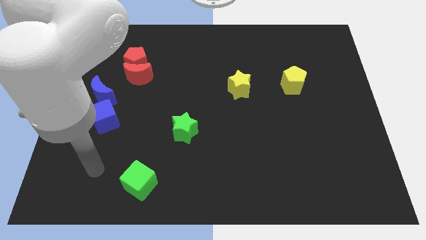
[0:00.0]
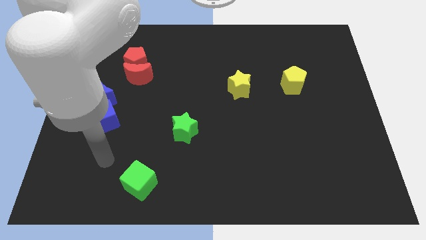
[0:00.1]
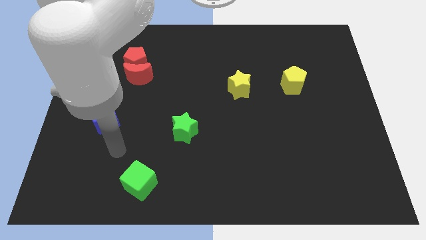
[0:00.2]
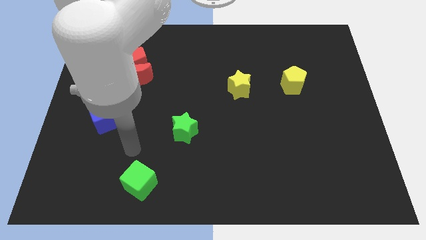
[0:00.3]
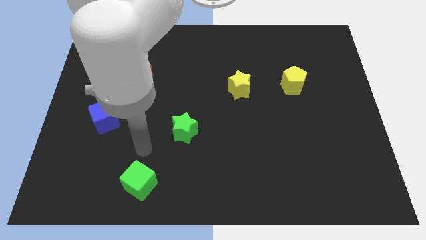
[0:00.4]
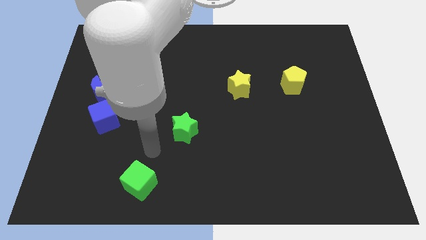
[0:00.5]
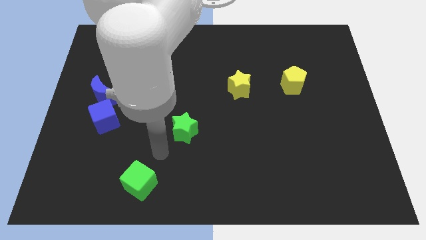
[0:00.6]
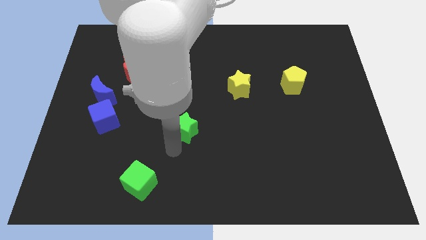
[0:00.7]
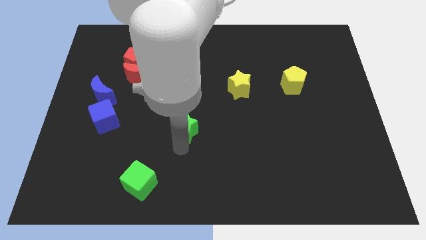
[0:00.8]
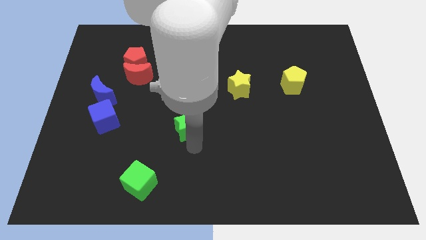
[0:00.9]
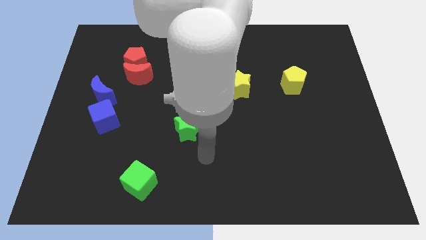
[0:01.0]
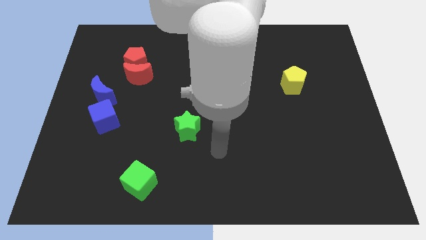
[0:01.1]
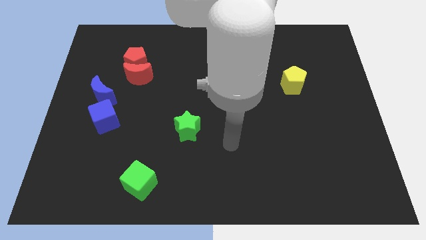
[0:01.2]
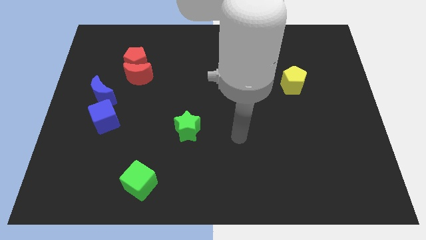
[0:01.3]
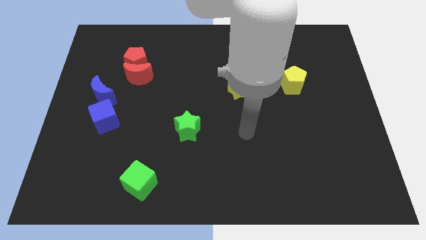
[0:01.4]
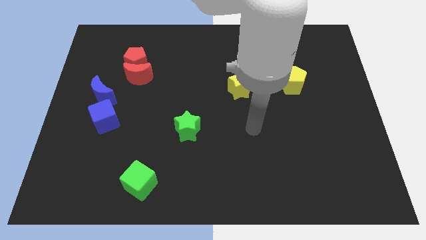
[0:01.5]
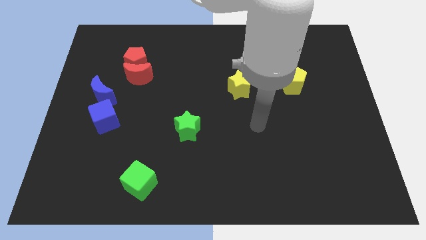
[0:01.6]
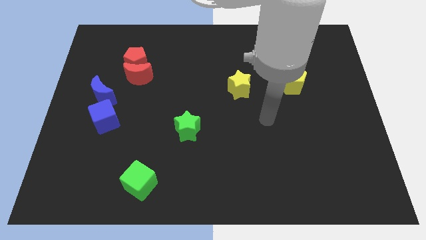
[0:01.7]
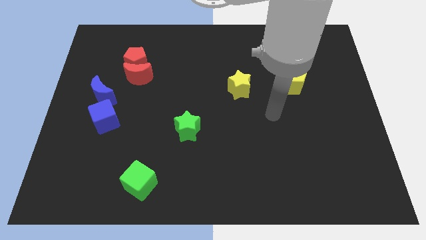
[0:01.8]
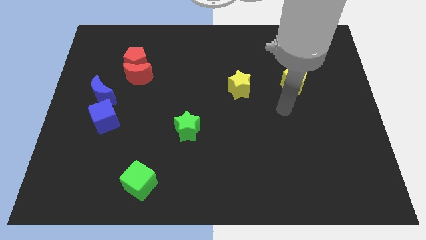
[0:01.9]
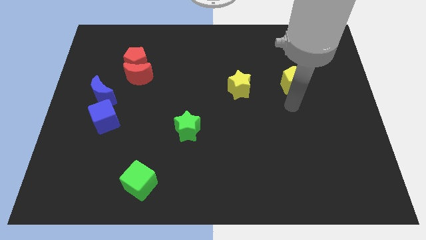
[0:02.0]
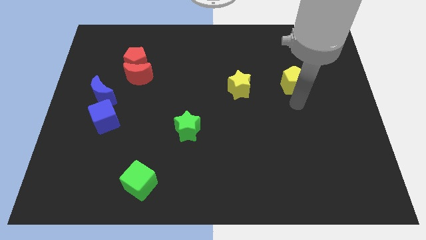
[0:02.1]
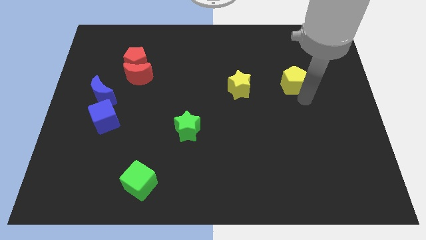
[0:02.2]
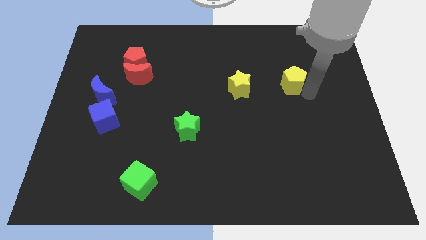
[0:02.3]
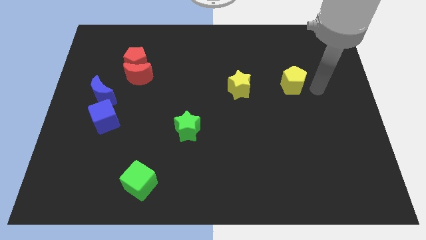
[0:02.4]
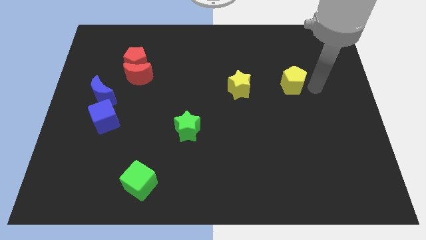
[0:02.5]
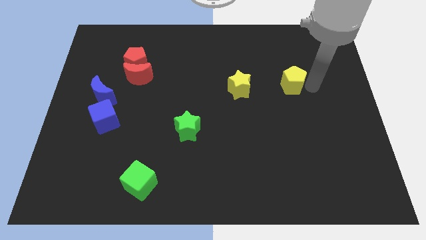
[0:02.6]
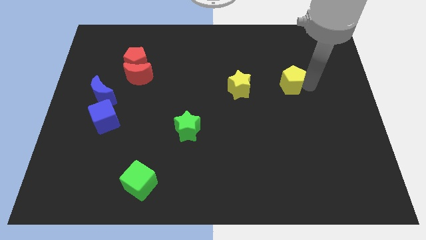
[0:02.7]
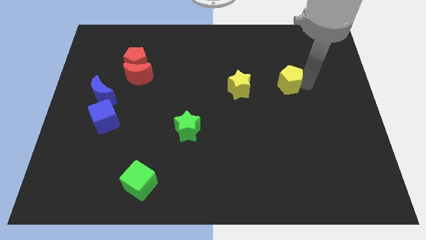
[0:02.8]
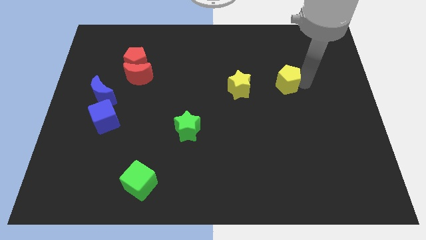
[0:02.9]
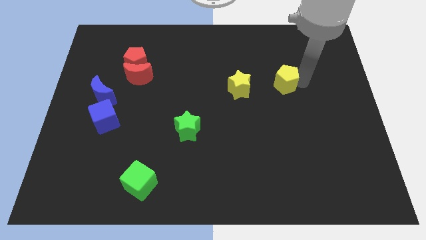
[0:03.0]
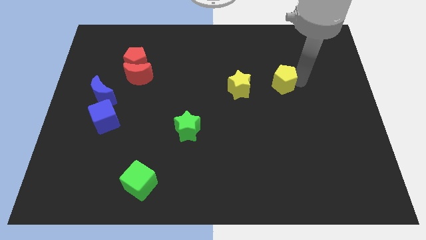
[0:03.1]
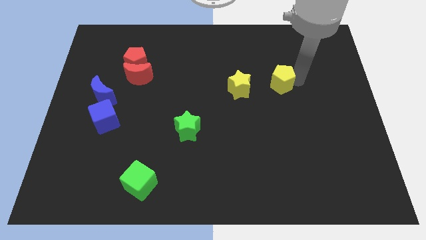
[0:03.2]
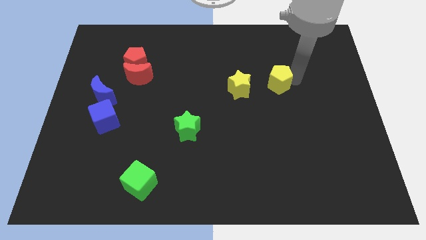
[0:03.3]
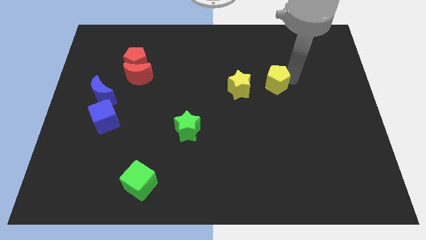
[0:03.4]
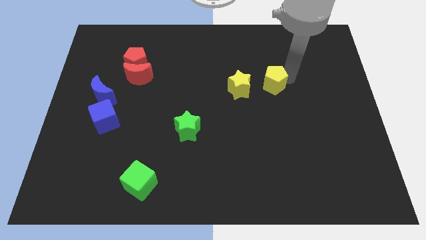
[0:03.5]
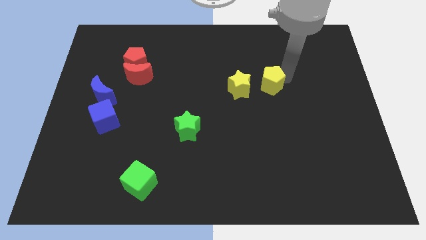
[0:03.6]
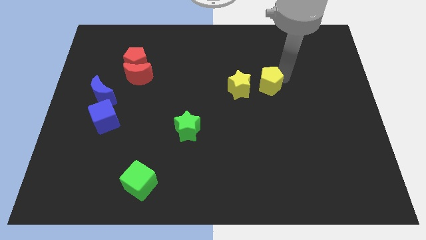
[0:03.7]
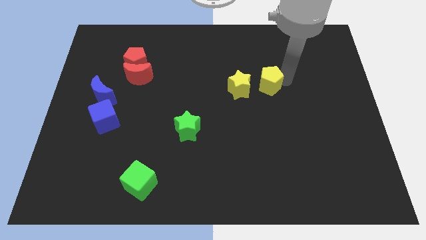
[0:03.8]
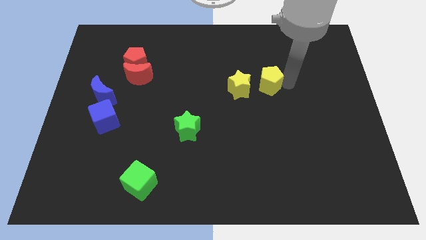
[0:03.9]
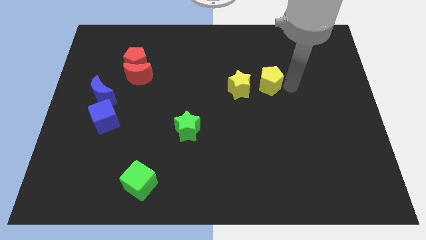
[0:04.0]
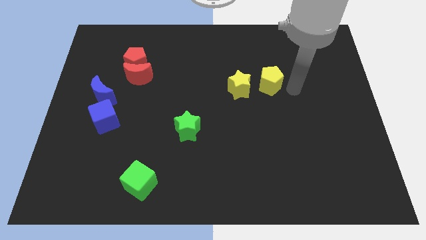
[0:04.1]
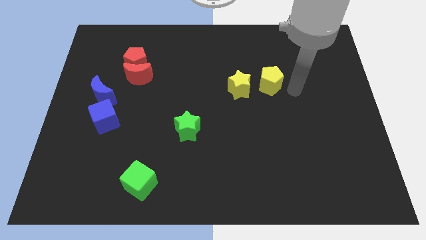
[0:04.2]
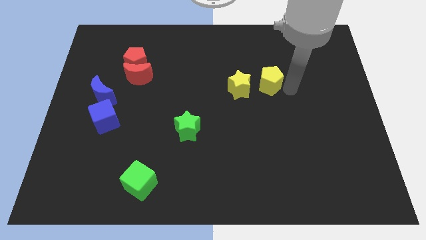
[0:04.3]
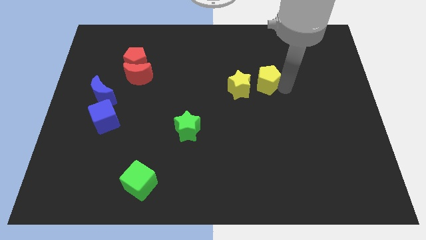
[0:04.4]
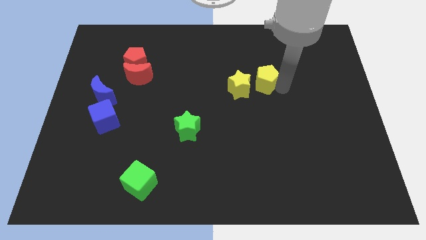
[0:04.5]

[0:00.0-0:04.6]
slightly slide the yellow pentagon to the left

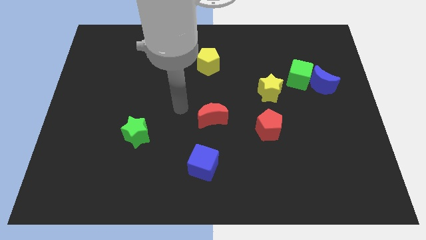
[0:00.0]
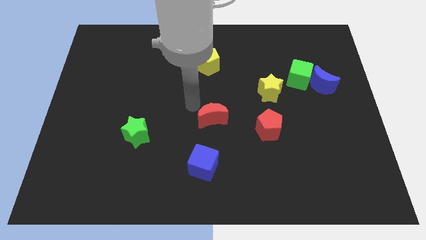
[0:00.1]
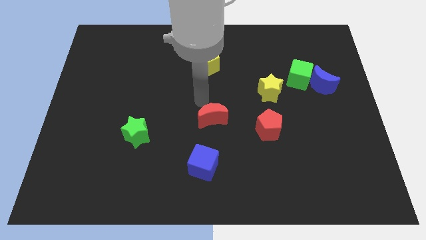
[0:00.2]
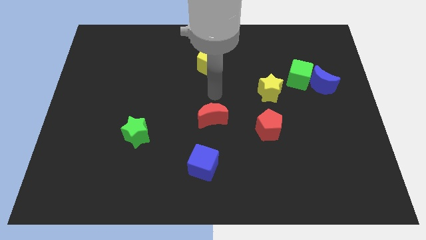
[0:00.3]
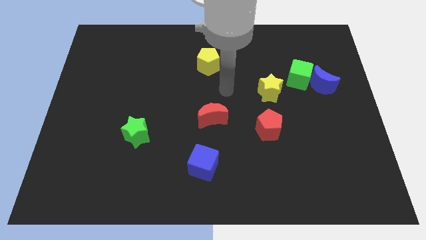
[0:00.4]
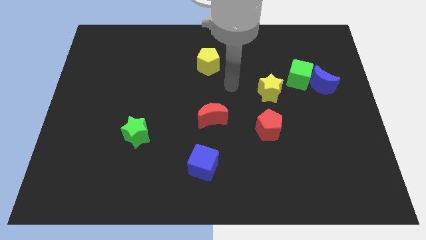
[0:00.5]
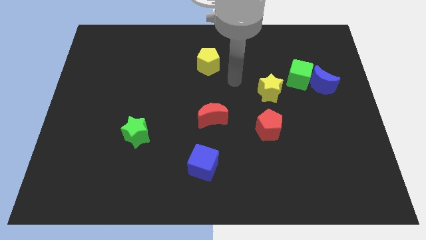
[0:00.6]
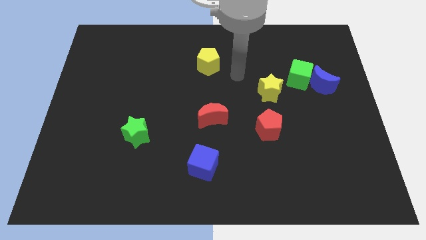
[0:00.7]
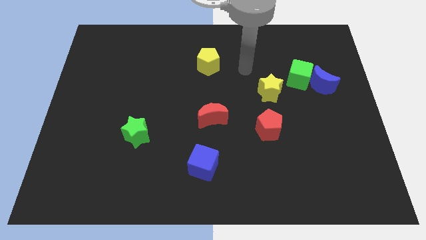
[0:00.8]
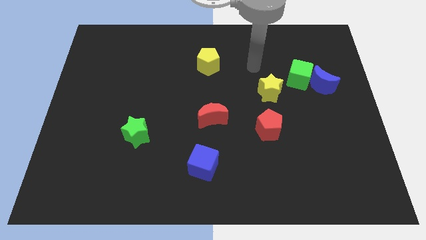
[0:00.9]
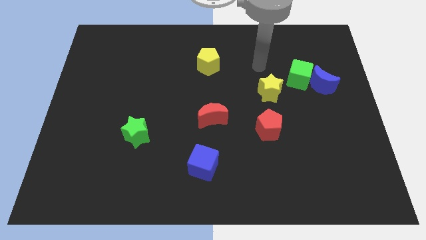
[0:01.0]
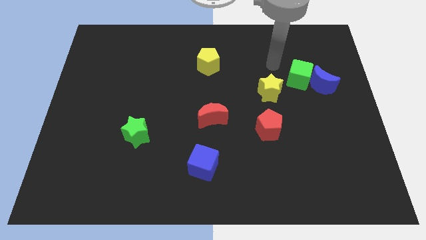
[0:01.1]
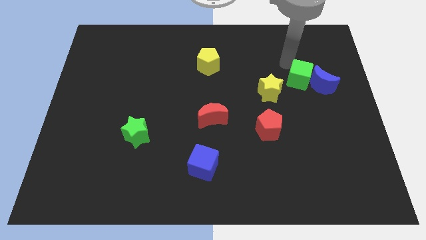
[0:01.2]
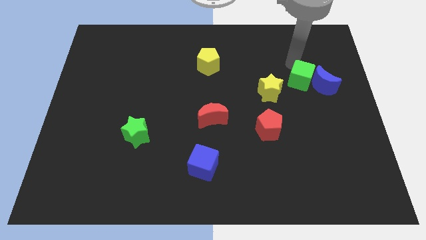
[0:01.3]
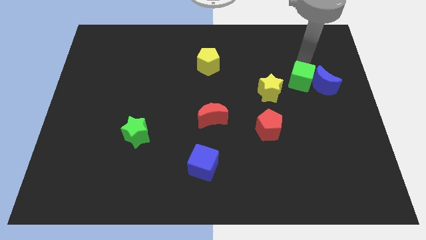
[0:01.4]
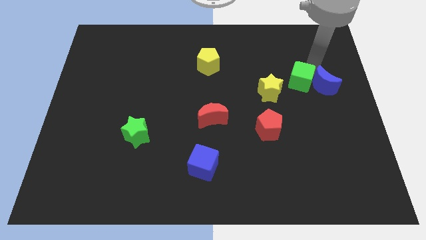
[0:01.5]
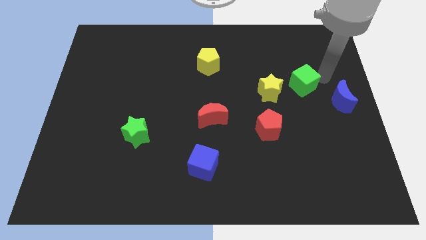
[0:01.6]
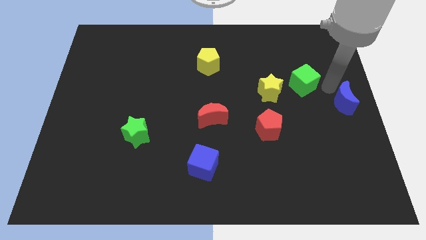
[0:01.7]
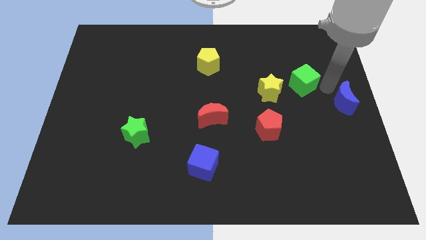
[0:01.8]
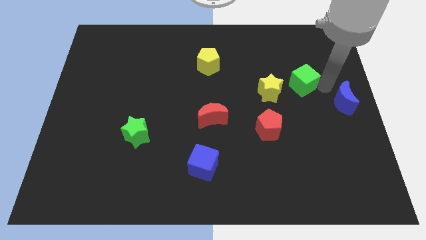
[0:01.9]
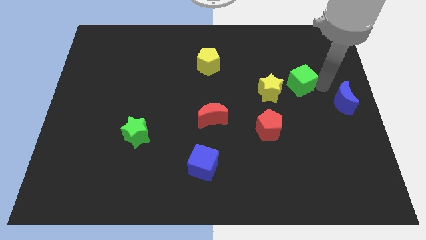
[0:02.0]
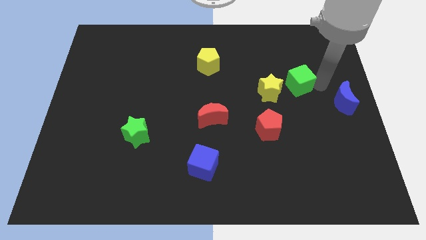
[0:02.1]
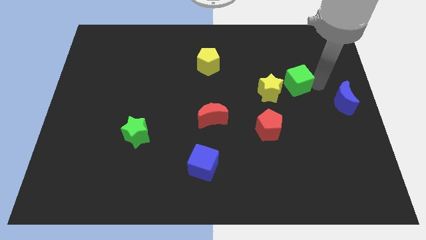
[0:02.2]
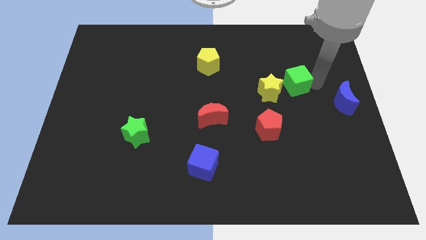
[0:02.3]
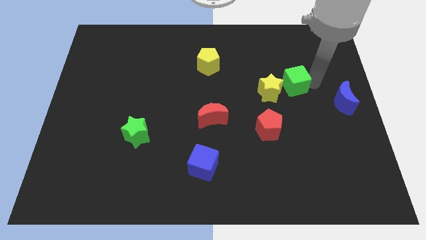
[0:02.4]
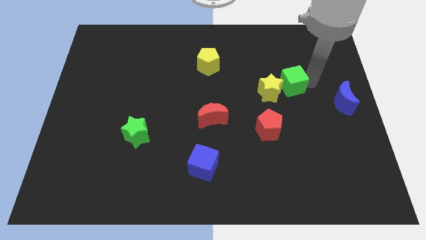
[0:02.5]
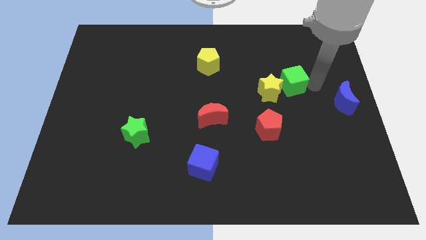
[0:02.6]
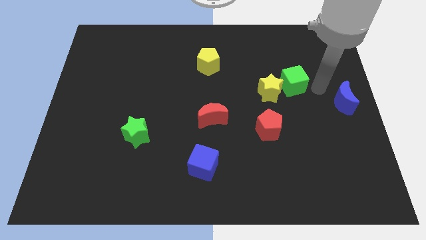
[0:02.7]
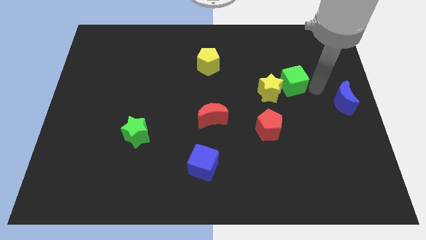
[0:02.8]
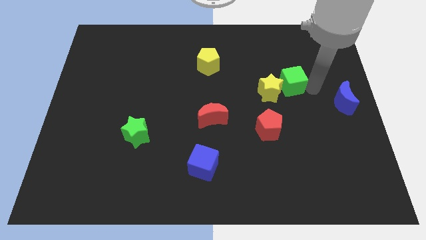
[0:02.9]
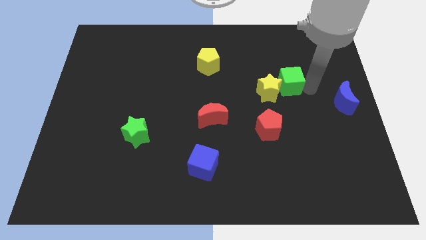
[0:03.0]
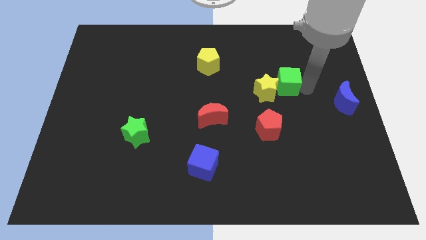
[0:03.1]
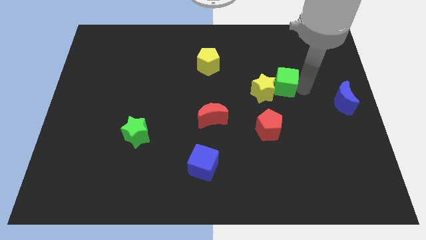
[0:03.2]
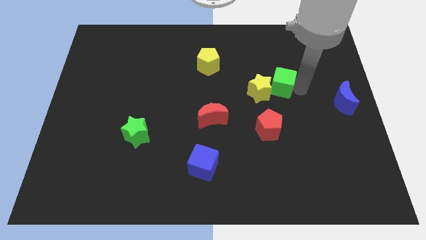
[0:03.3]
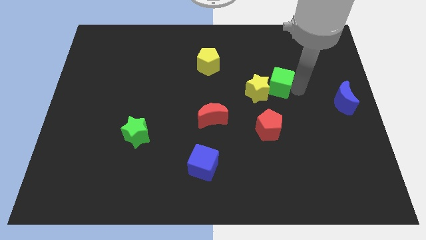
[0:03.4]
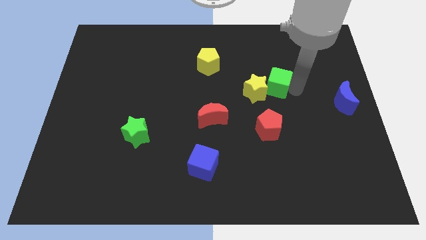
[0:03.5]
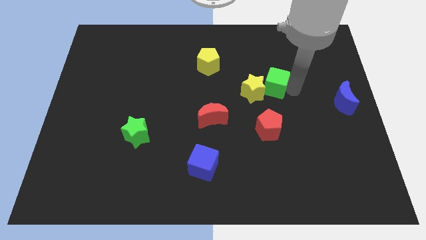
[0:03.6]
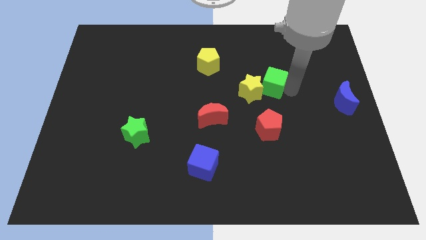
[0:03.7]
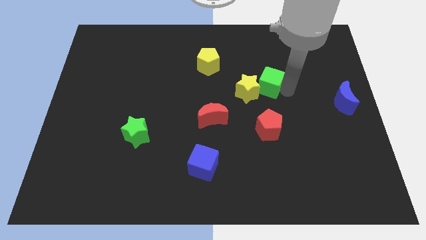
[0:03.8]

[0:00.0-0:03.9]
push the green cube somewhat left

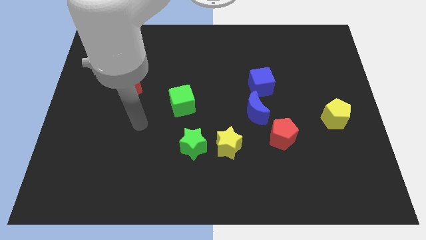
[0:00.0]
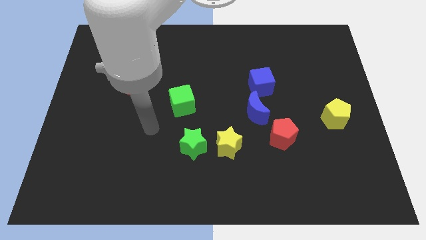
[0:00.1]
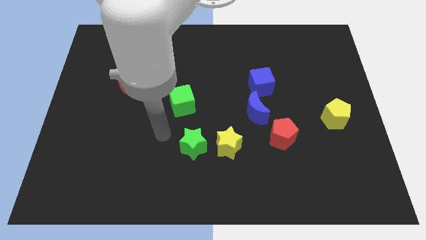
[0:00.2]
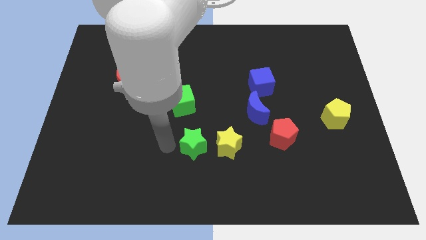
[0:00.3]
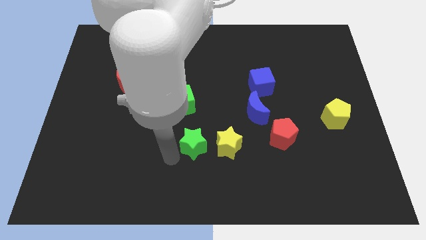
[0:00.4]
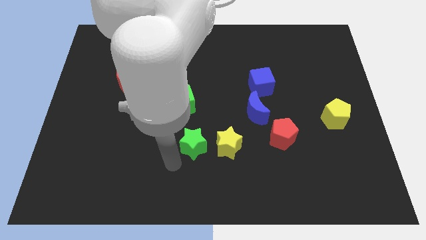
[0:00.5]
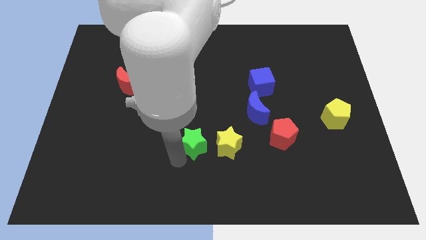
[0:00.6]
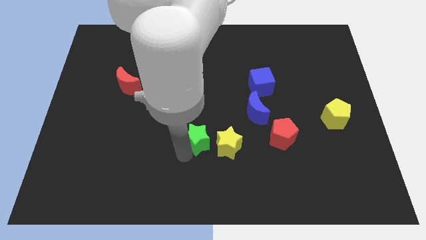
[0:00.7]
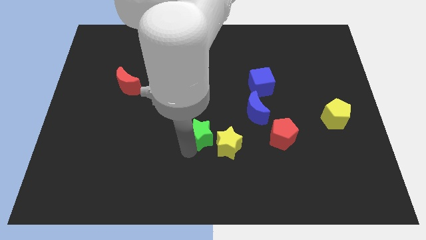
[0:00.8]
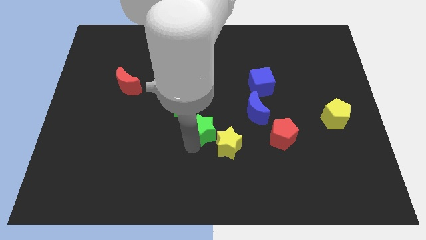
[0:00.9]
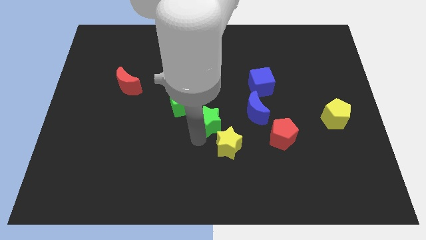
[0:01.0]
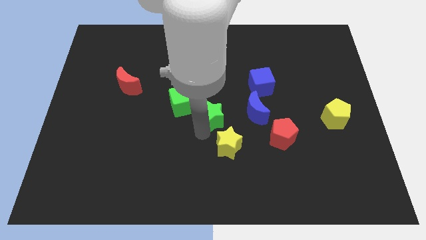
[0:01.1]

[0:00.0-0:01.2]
slightly slide the green star upwards and right
